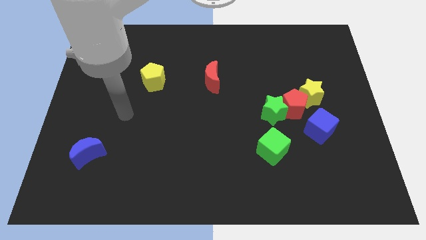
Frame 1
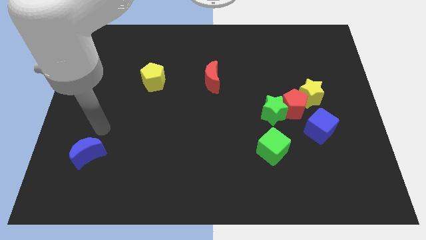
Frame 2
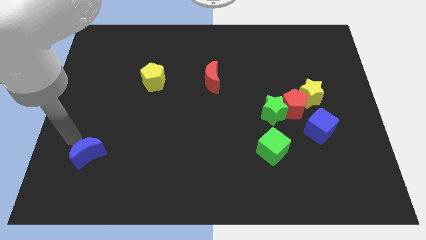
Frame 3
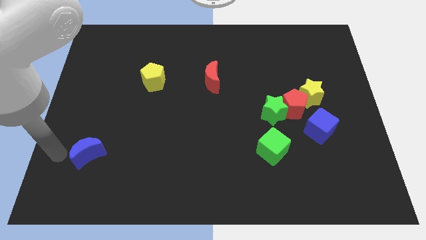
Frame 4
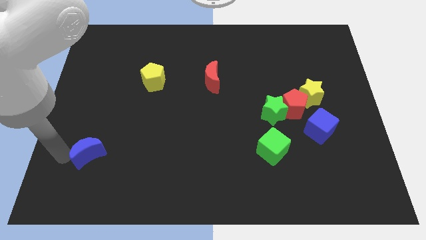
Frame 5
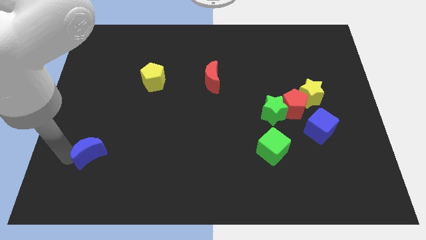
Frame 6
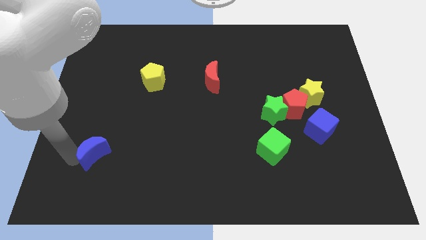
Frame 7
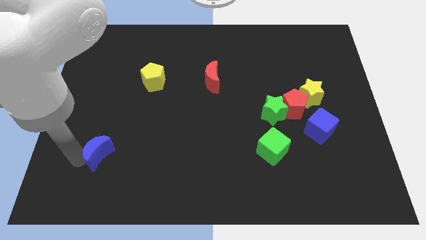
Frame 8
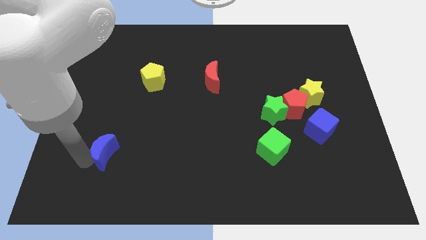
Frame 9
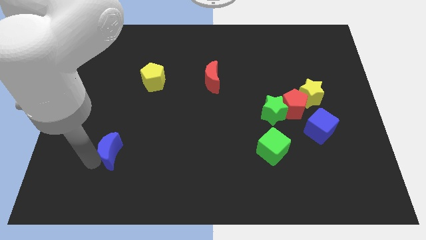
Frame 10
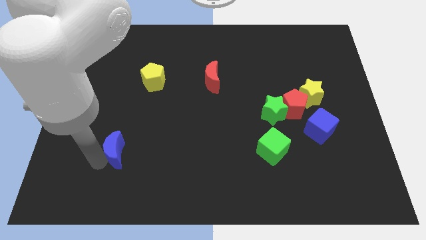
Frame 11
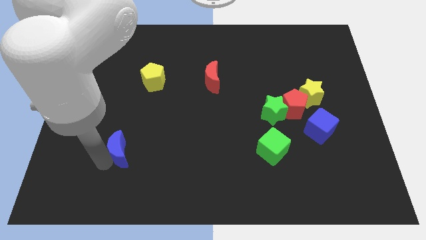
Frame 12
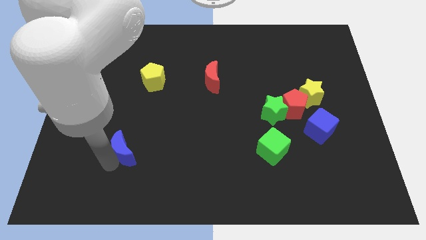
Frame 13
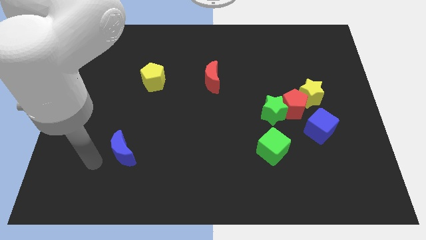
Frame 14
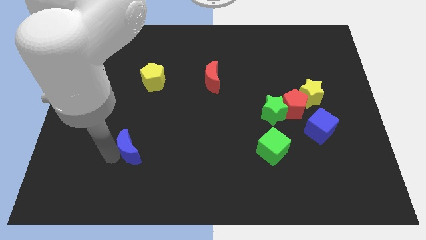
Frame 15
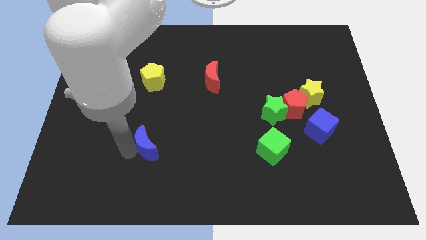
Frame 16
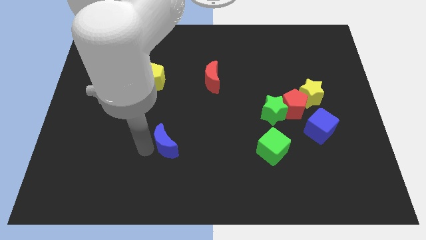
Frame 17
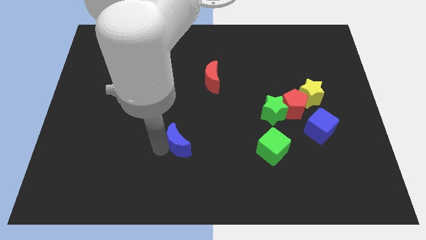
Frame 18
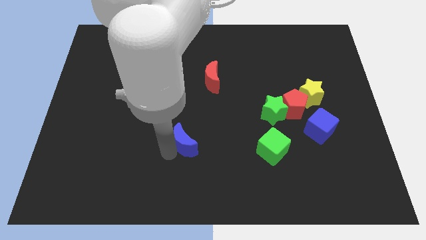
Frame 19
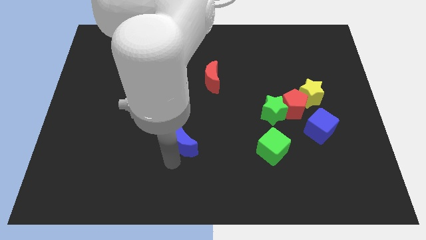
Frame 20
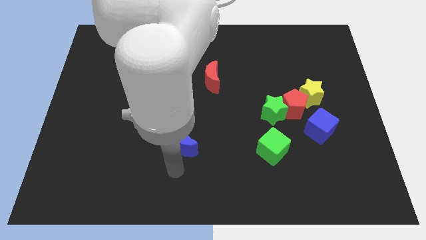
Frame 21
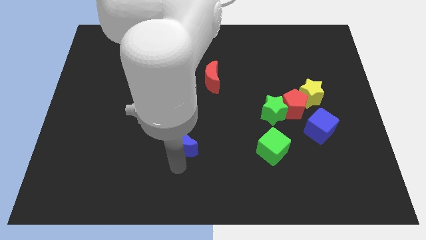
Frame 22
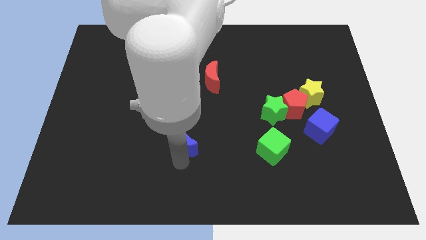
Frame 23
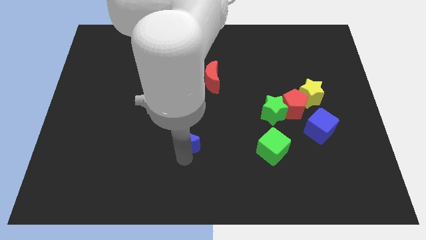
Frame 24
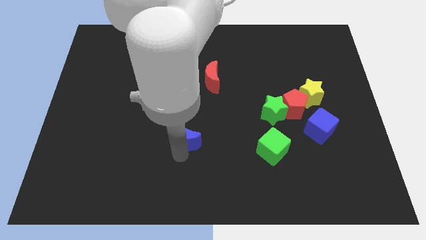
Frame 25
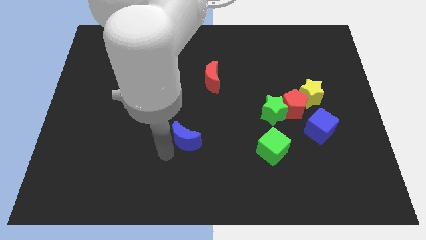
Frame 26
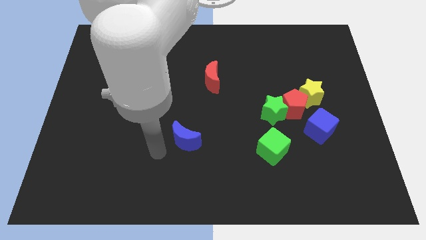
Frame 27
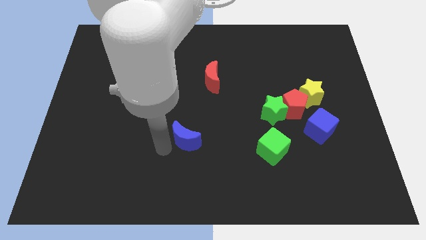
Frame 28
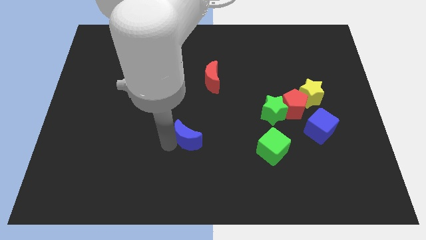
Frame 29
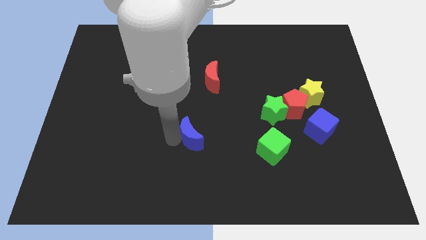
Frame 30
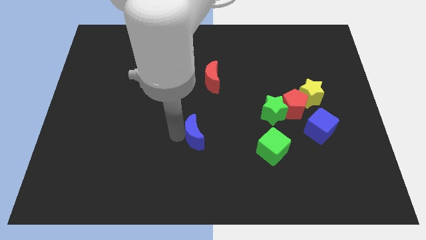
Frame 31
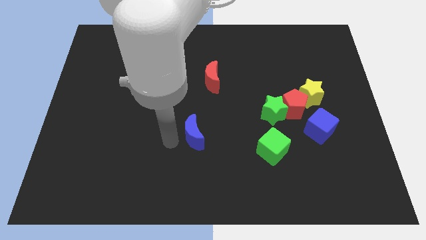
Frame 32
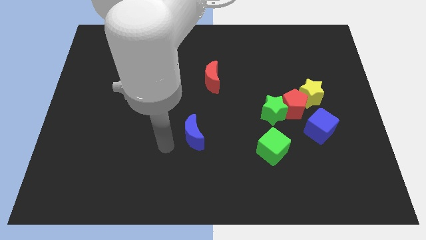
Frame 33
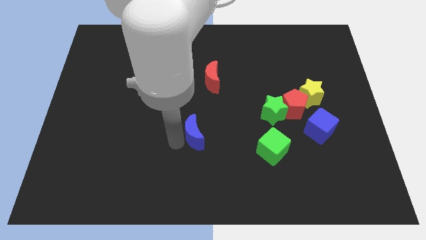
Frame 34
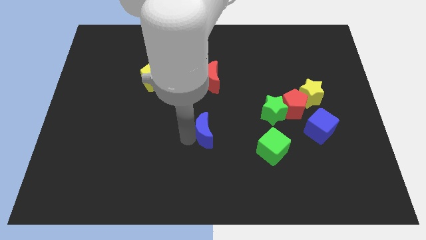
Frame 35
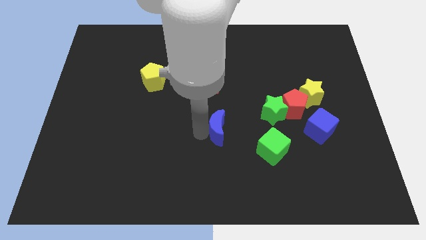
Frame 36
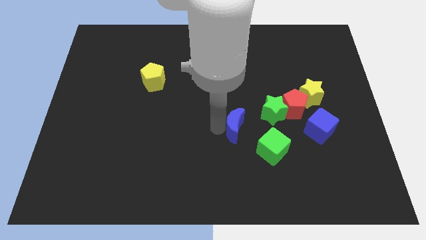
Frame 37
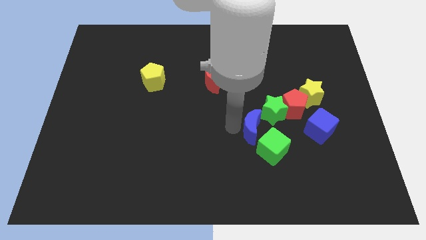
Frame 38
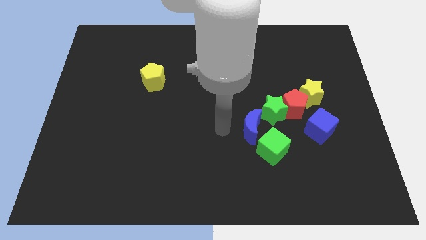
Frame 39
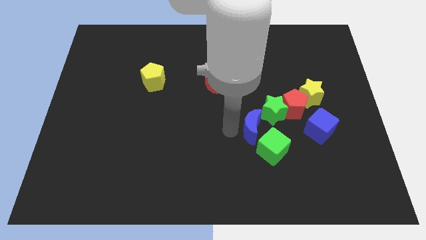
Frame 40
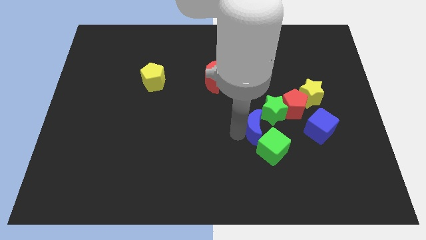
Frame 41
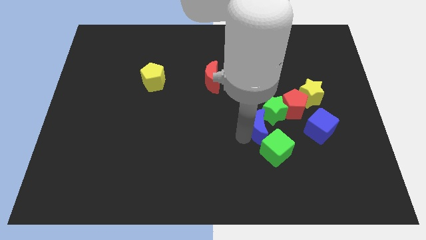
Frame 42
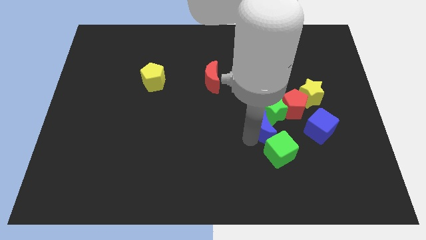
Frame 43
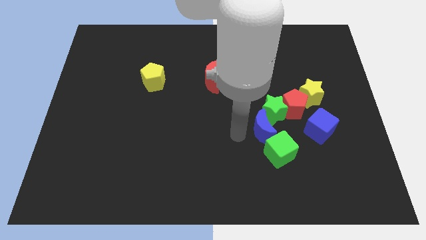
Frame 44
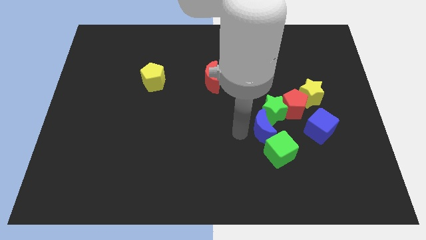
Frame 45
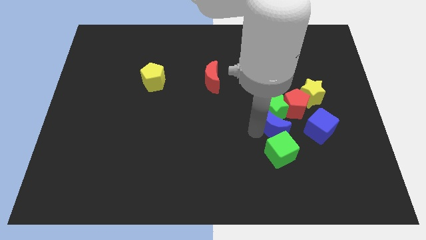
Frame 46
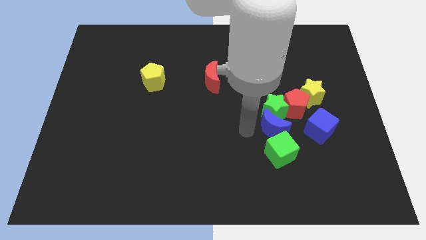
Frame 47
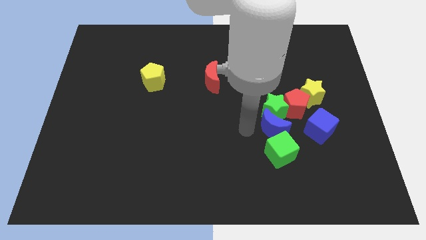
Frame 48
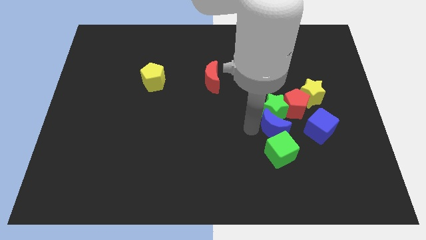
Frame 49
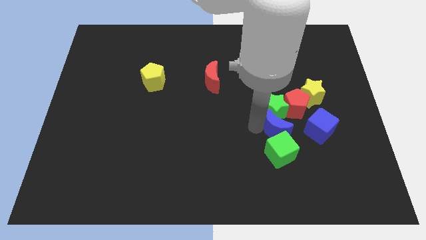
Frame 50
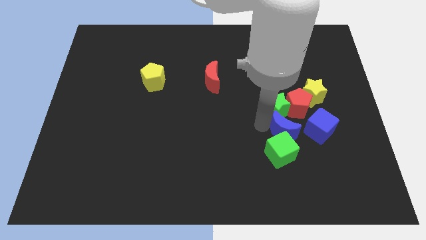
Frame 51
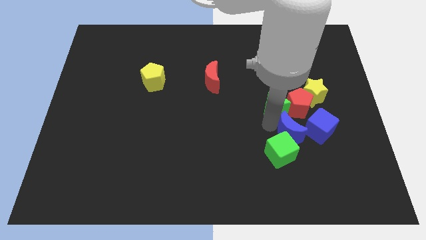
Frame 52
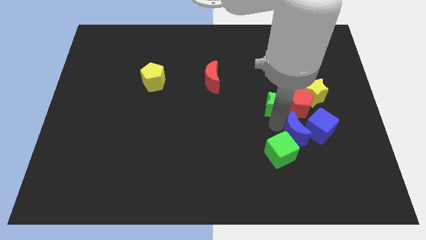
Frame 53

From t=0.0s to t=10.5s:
slide the blue moon next to the blue cube

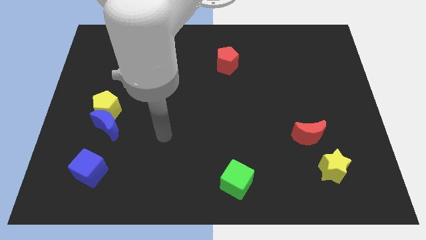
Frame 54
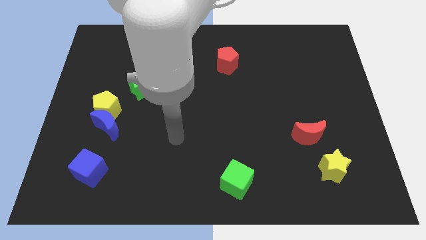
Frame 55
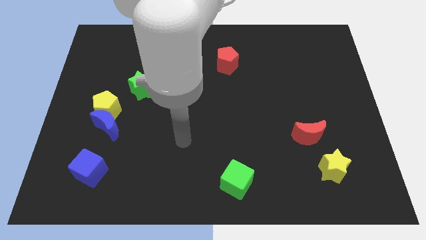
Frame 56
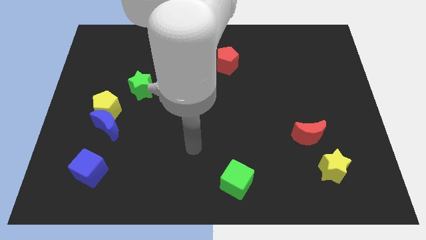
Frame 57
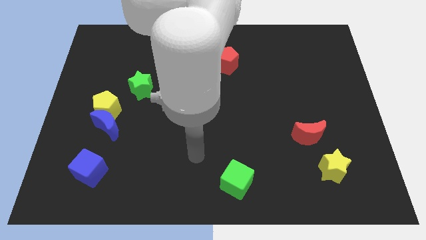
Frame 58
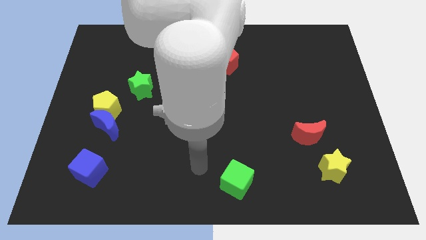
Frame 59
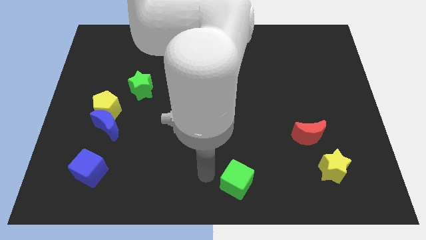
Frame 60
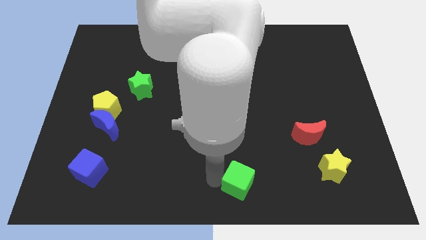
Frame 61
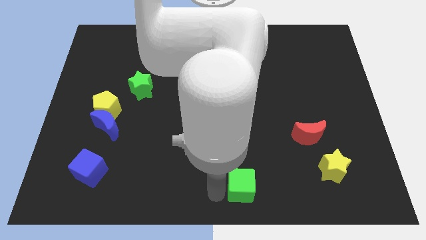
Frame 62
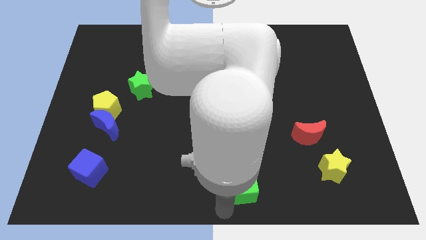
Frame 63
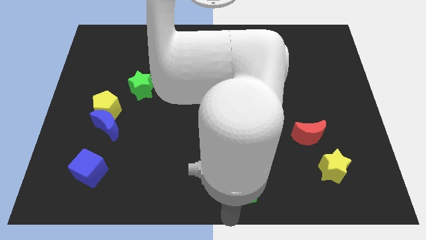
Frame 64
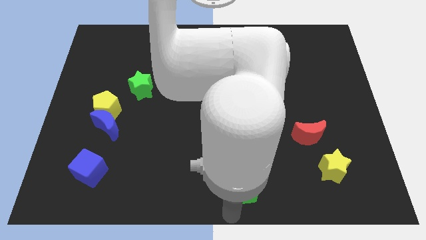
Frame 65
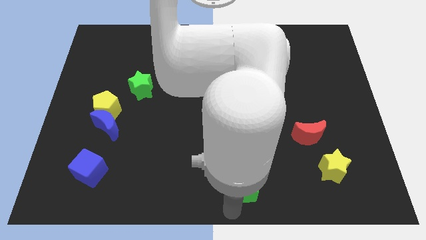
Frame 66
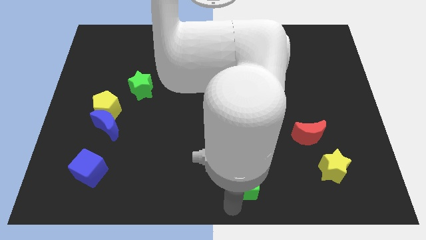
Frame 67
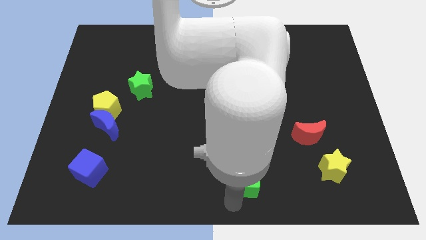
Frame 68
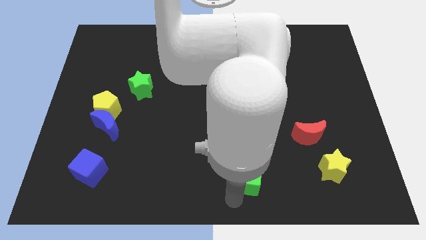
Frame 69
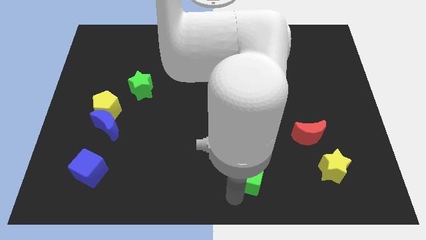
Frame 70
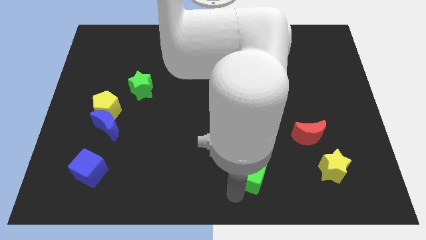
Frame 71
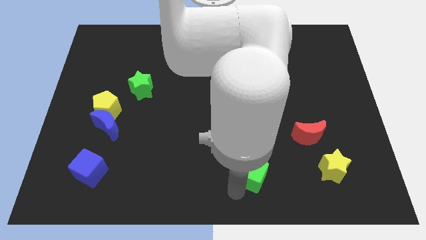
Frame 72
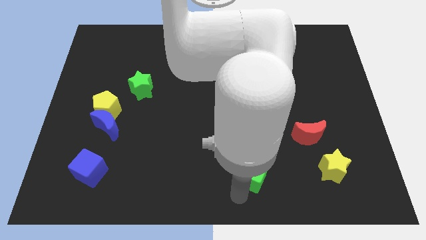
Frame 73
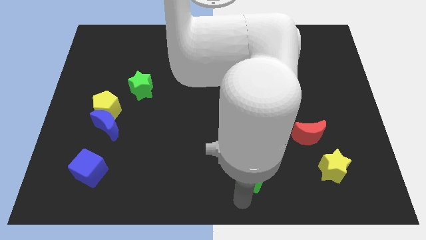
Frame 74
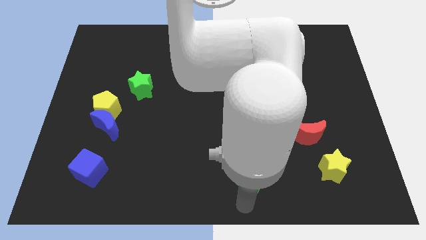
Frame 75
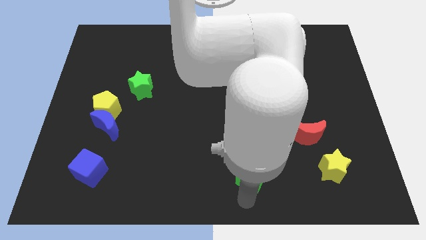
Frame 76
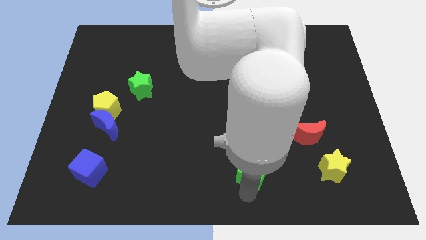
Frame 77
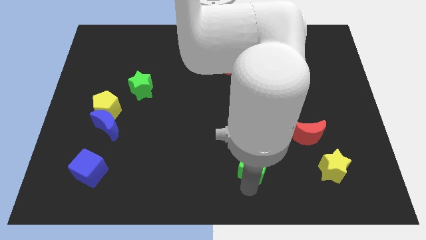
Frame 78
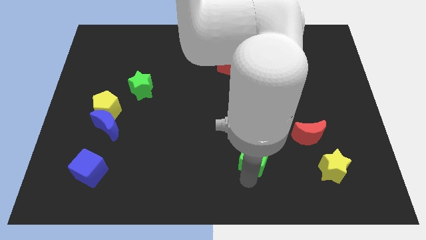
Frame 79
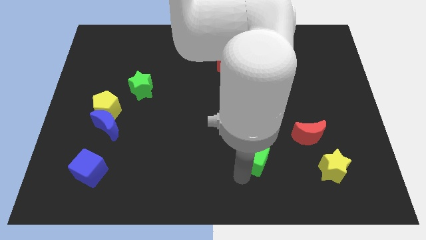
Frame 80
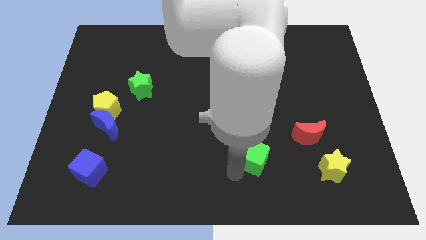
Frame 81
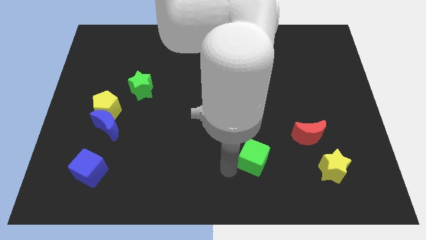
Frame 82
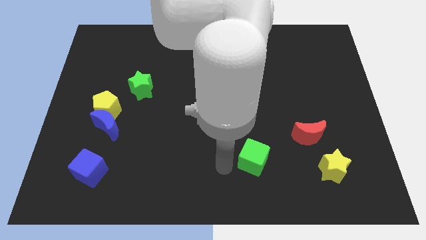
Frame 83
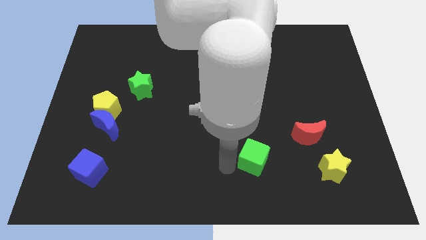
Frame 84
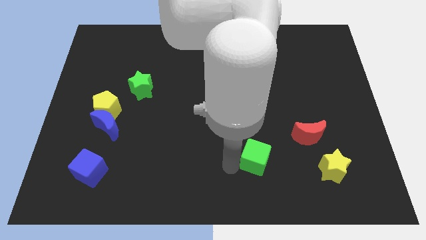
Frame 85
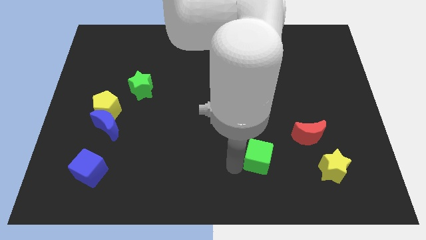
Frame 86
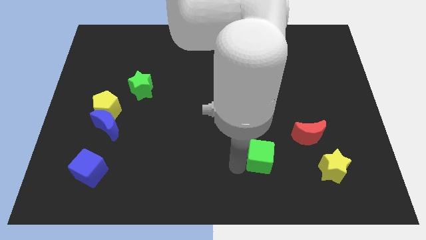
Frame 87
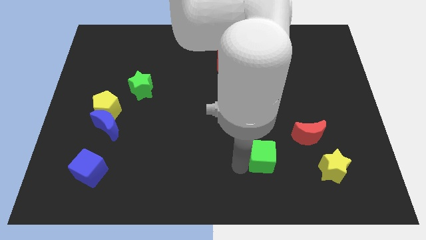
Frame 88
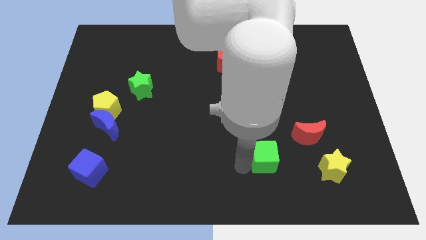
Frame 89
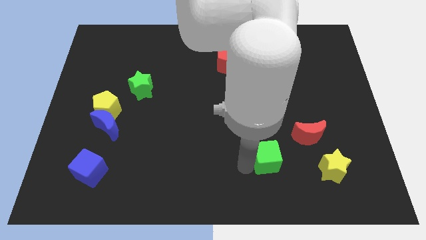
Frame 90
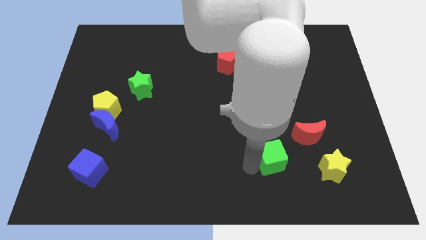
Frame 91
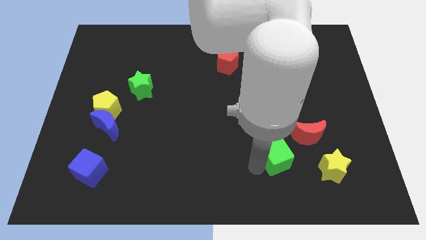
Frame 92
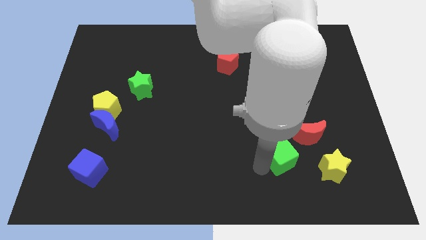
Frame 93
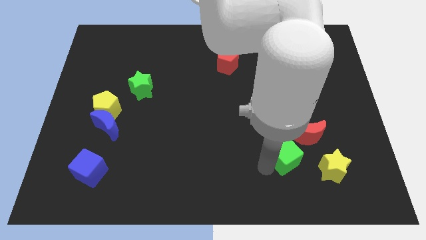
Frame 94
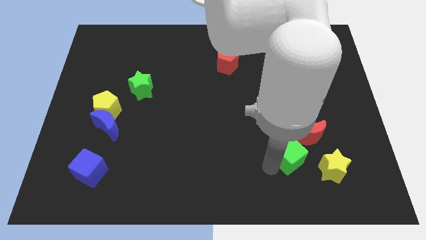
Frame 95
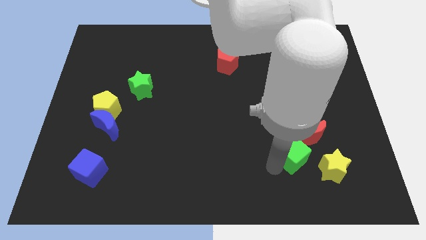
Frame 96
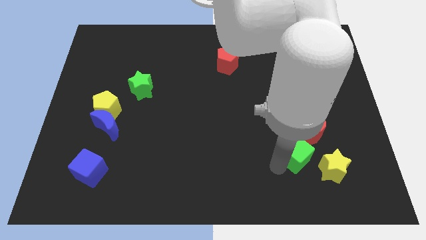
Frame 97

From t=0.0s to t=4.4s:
push the green cube to the red moon
